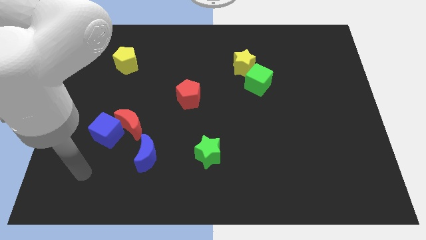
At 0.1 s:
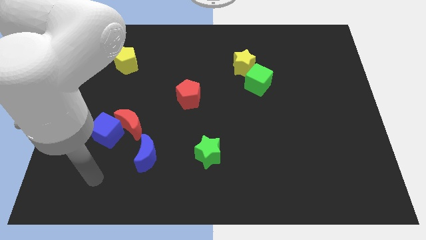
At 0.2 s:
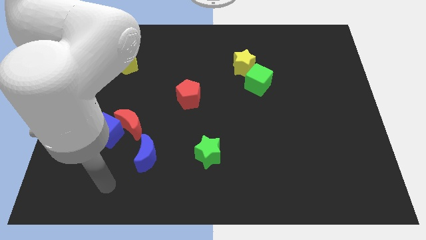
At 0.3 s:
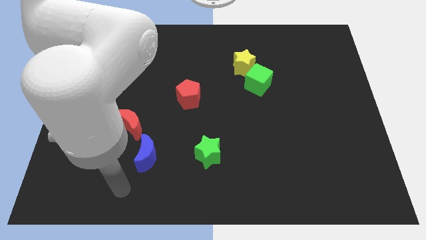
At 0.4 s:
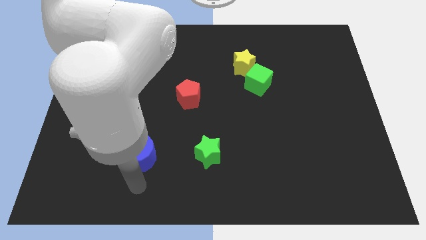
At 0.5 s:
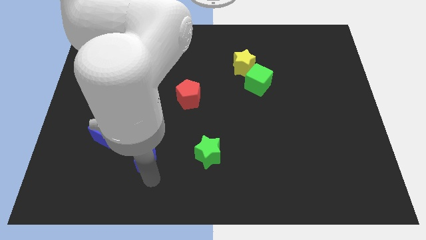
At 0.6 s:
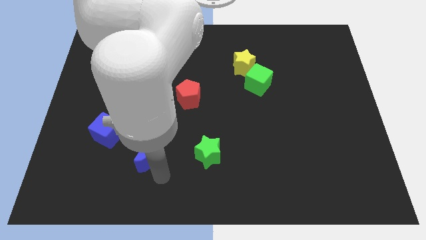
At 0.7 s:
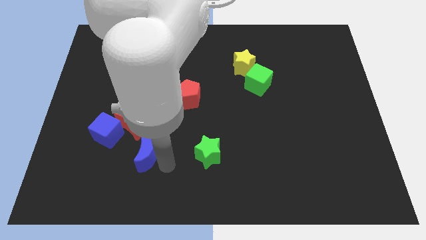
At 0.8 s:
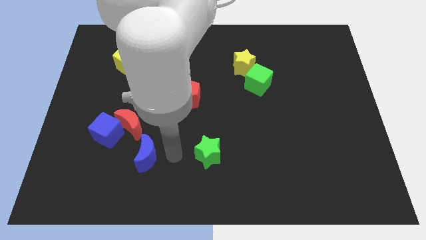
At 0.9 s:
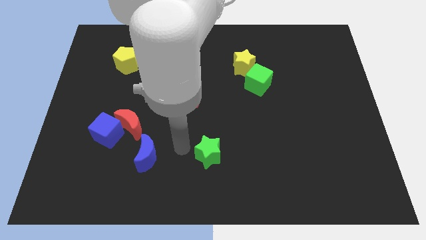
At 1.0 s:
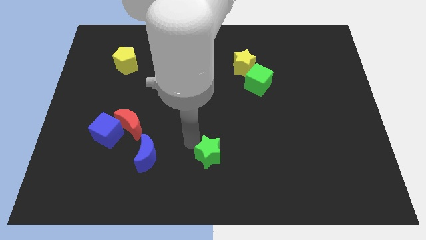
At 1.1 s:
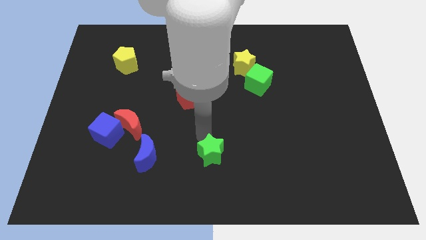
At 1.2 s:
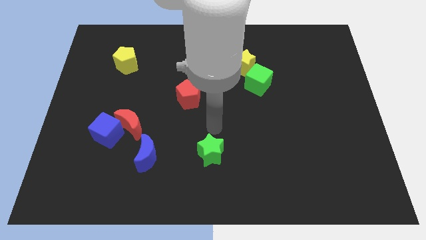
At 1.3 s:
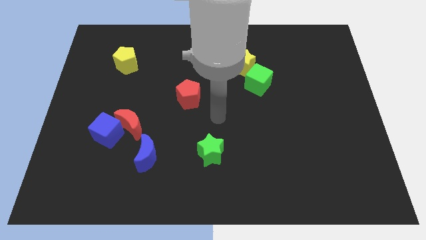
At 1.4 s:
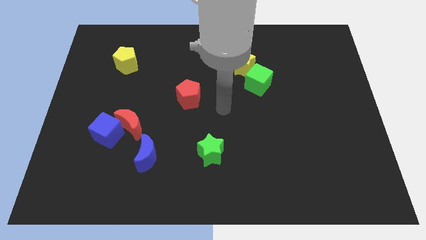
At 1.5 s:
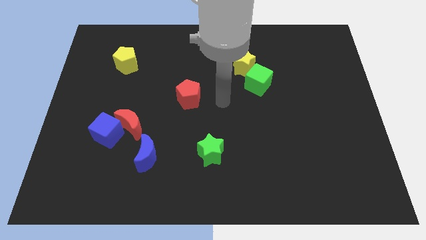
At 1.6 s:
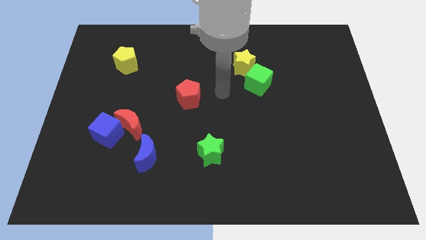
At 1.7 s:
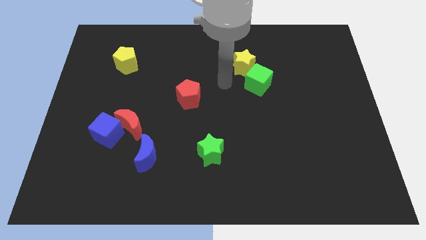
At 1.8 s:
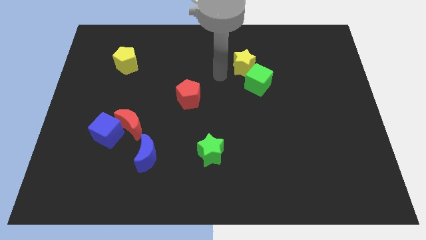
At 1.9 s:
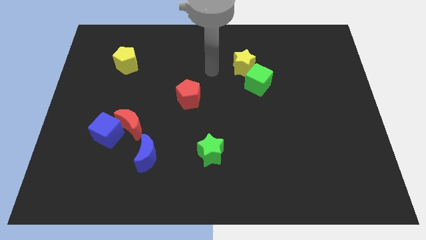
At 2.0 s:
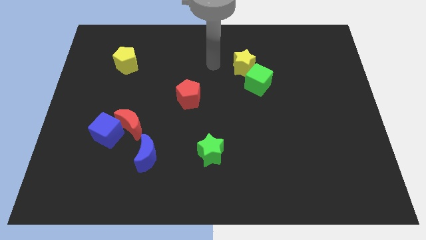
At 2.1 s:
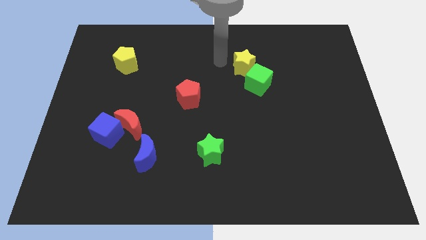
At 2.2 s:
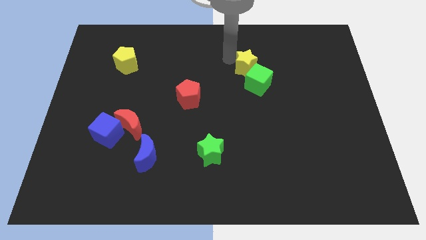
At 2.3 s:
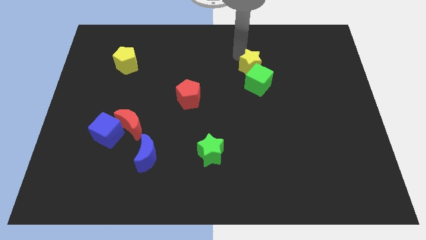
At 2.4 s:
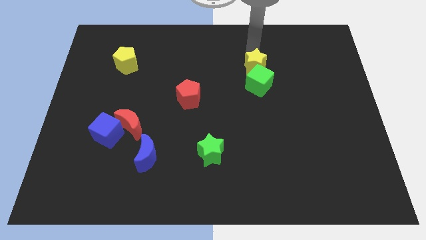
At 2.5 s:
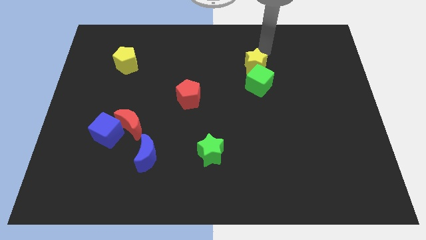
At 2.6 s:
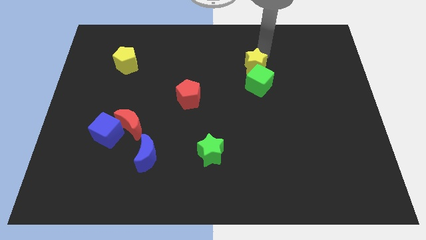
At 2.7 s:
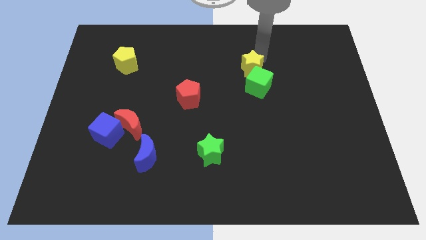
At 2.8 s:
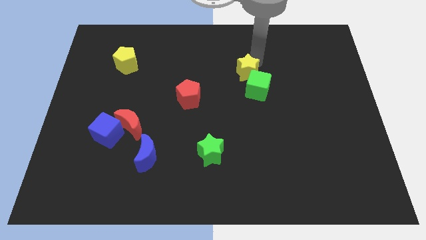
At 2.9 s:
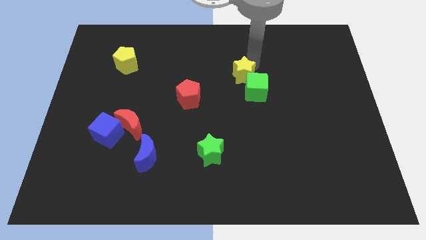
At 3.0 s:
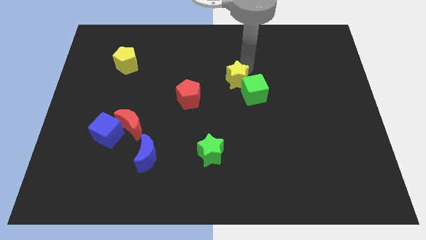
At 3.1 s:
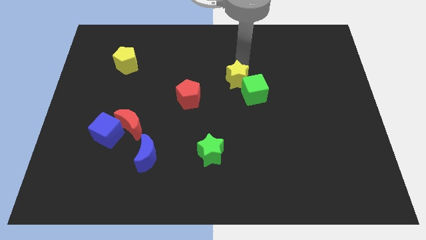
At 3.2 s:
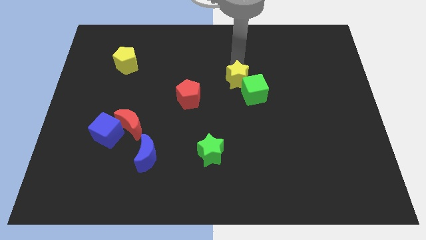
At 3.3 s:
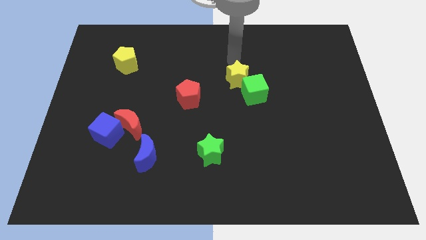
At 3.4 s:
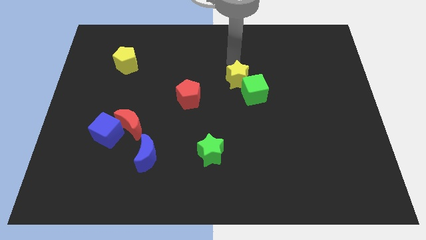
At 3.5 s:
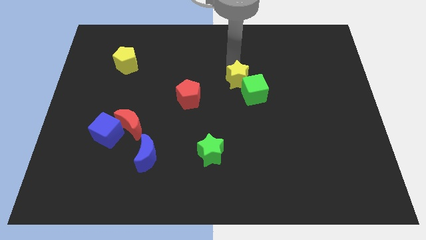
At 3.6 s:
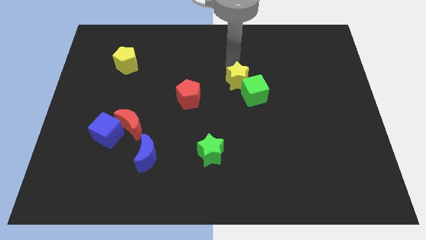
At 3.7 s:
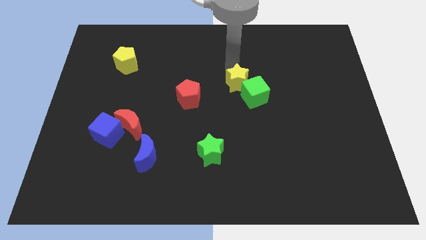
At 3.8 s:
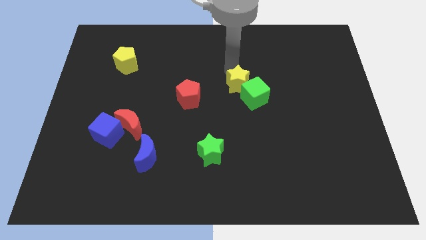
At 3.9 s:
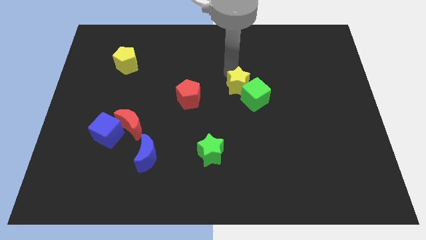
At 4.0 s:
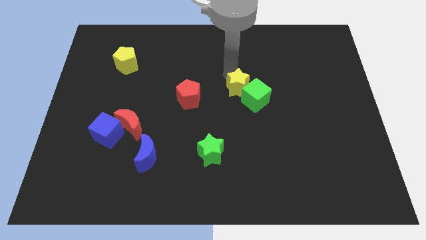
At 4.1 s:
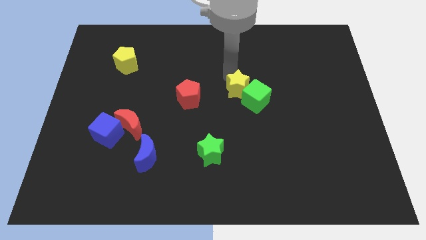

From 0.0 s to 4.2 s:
slightly push the yellow star downwards

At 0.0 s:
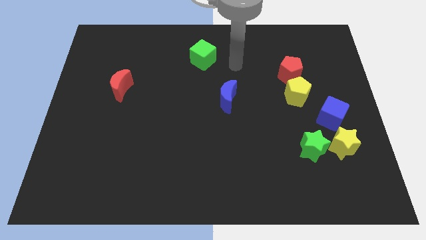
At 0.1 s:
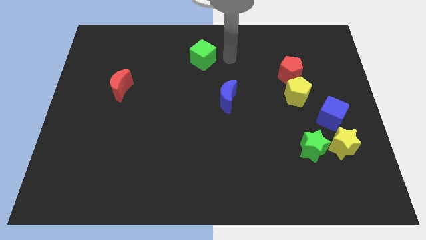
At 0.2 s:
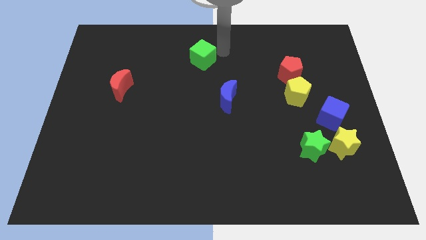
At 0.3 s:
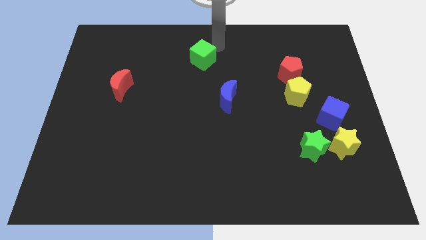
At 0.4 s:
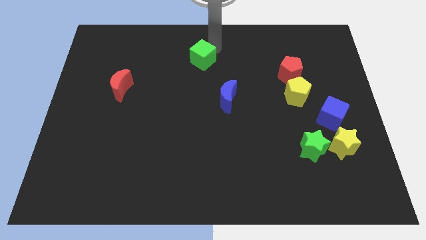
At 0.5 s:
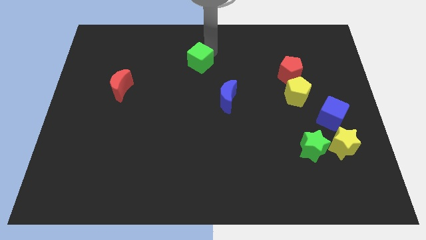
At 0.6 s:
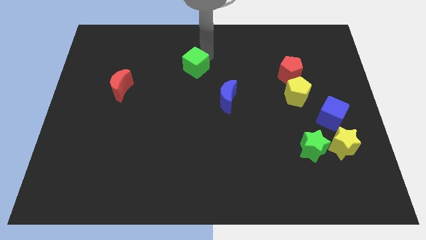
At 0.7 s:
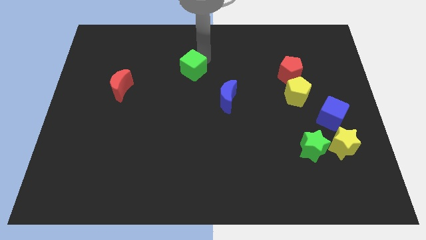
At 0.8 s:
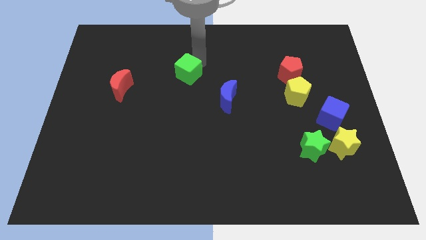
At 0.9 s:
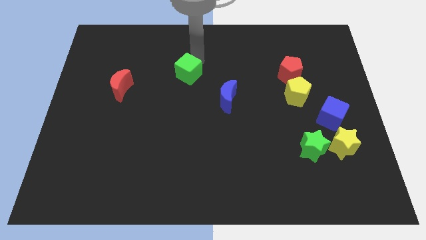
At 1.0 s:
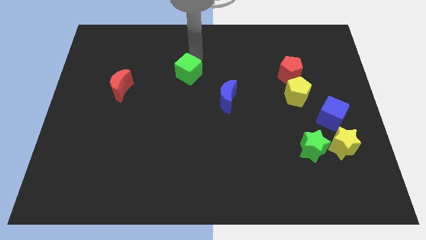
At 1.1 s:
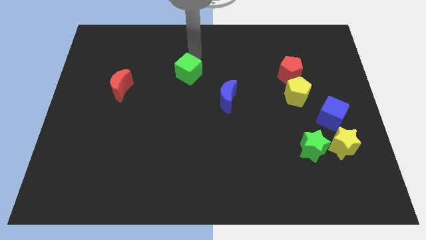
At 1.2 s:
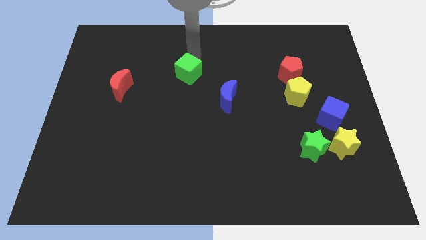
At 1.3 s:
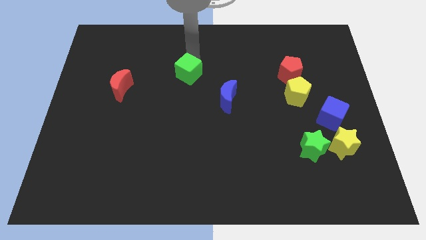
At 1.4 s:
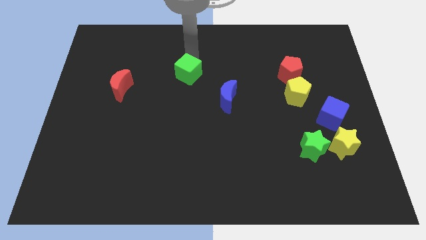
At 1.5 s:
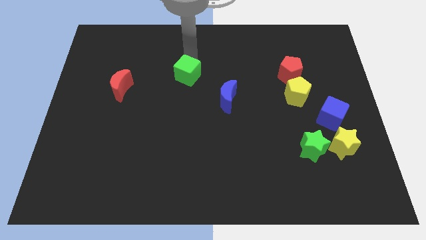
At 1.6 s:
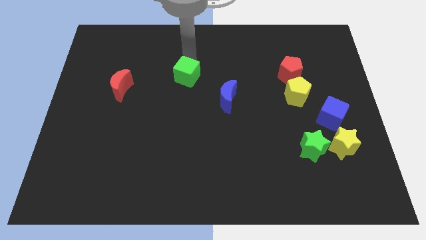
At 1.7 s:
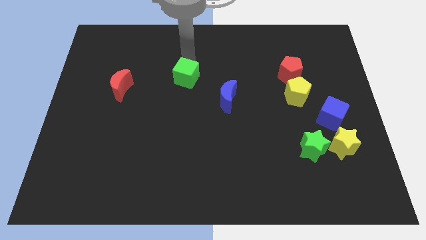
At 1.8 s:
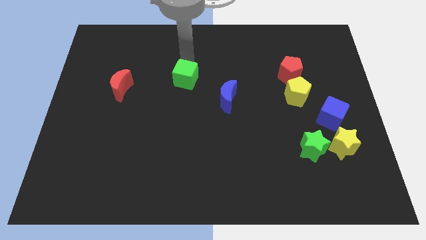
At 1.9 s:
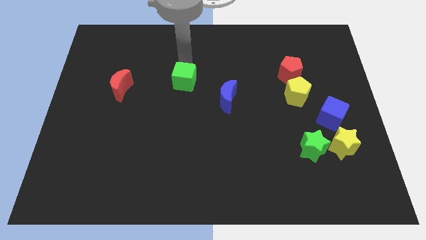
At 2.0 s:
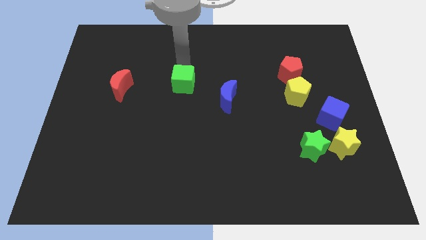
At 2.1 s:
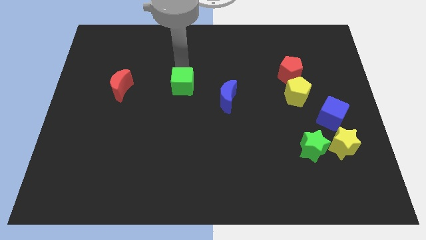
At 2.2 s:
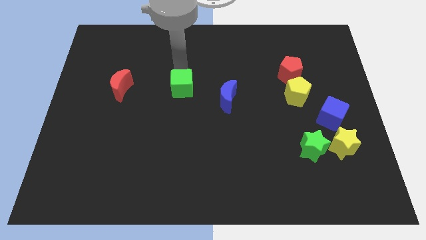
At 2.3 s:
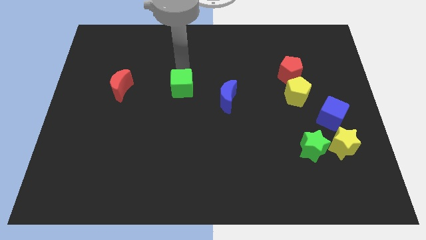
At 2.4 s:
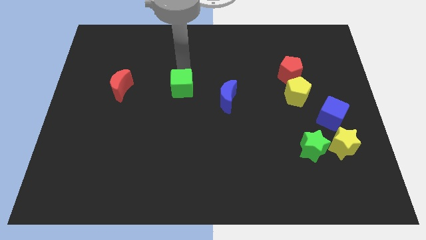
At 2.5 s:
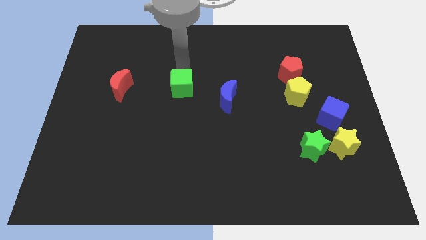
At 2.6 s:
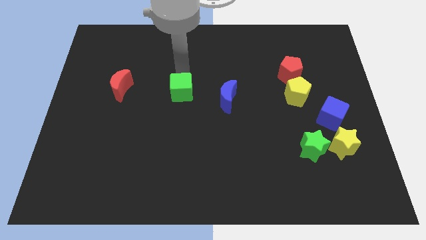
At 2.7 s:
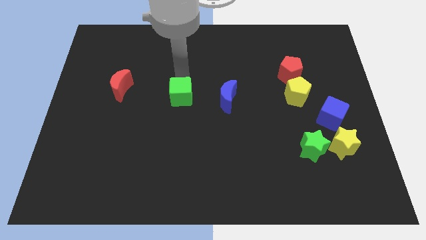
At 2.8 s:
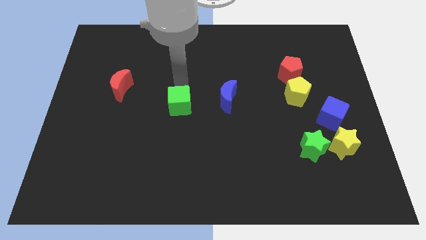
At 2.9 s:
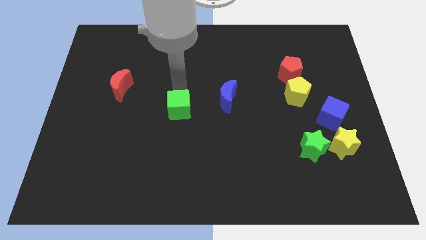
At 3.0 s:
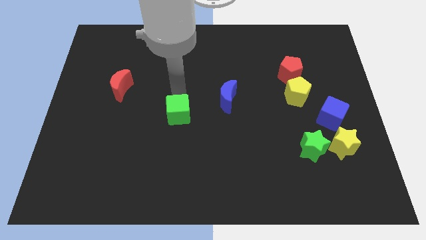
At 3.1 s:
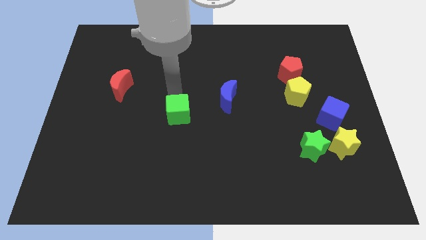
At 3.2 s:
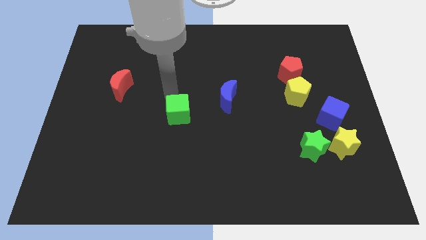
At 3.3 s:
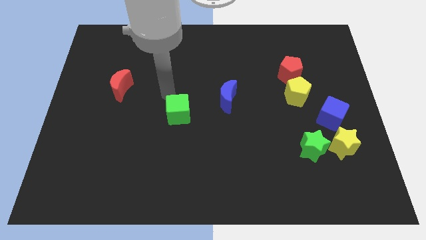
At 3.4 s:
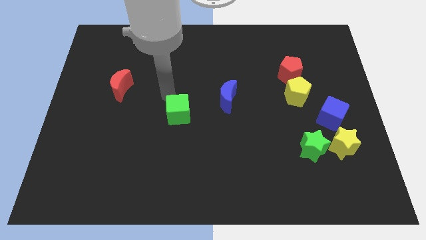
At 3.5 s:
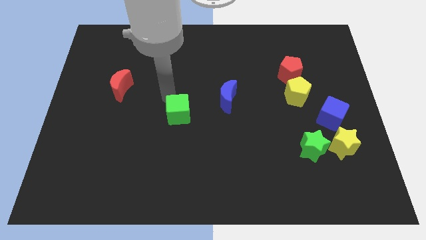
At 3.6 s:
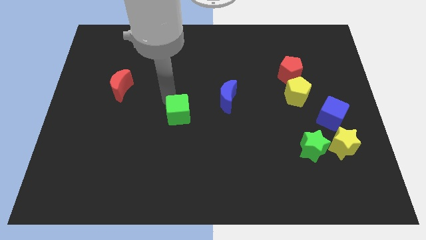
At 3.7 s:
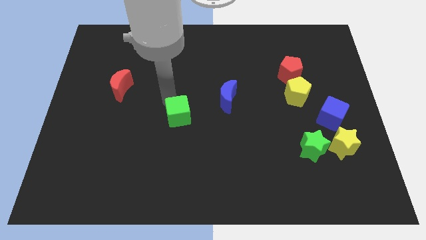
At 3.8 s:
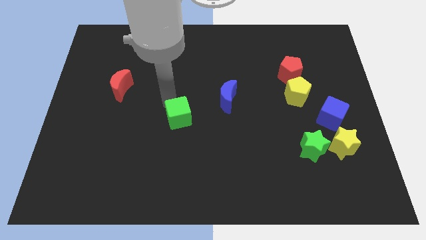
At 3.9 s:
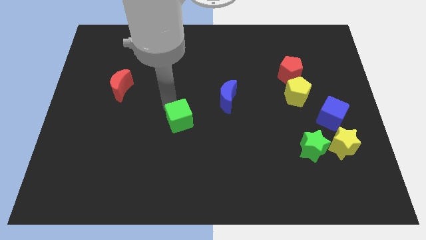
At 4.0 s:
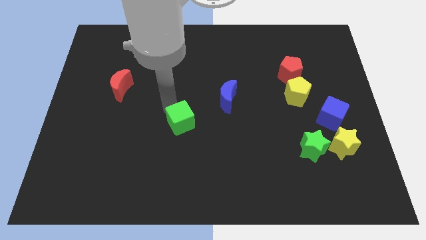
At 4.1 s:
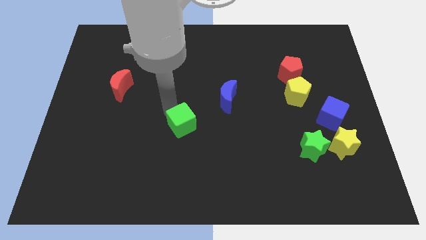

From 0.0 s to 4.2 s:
move the green cube down

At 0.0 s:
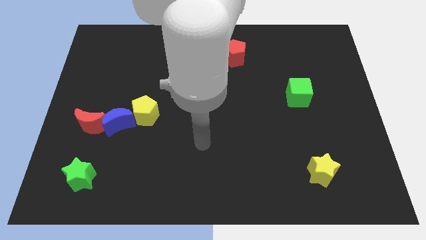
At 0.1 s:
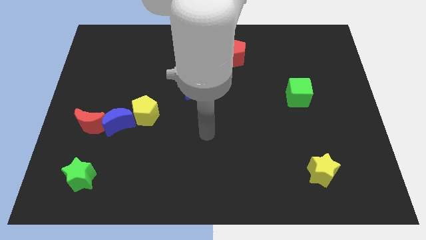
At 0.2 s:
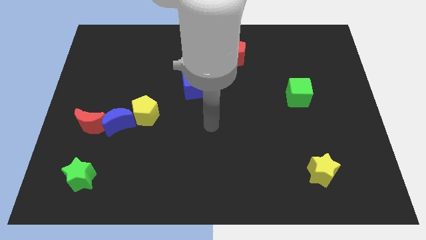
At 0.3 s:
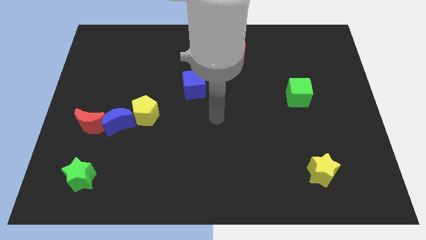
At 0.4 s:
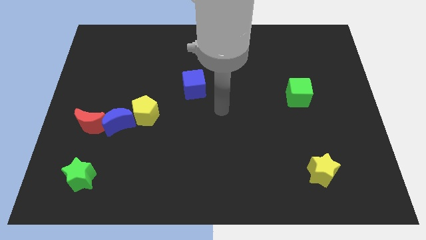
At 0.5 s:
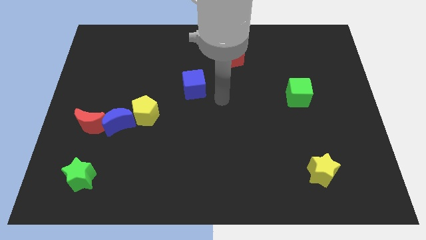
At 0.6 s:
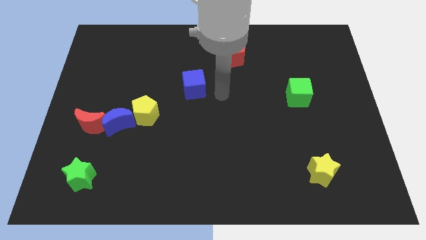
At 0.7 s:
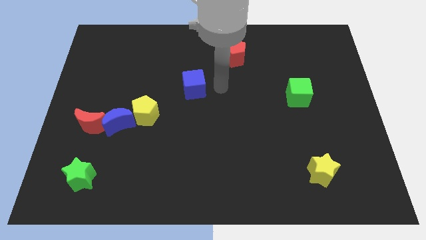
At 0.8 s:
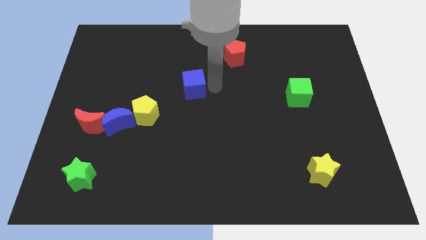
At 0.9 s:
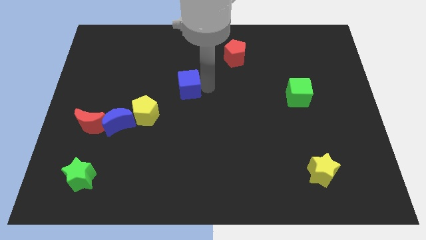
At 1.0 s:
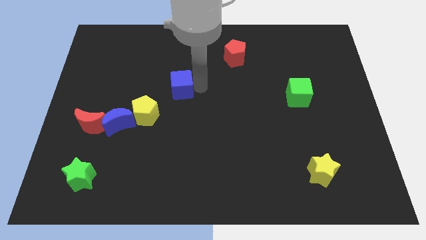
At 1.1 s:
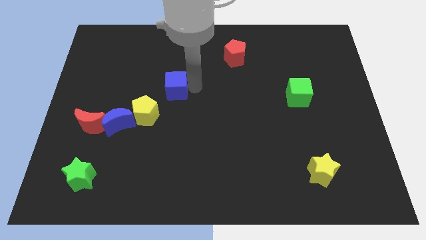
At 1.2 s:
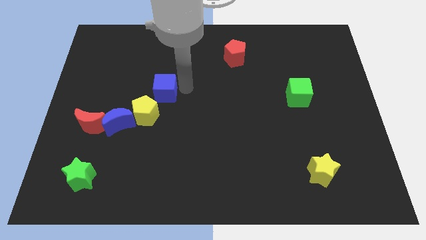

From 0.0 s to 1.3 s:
push the blue cube a bit to the left
